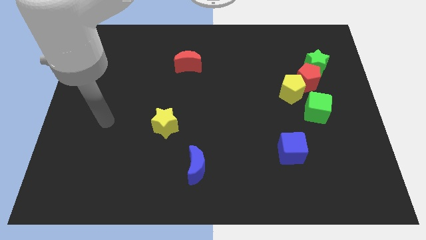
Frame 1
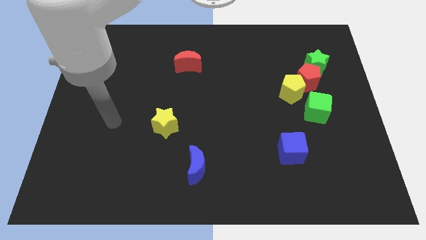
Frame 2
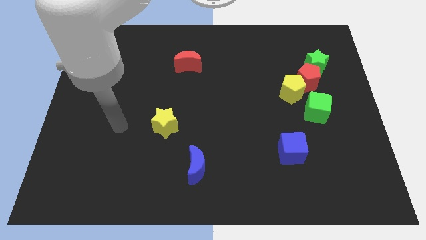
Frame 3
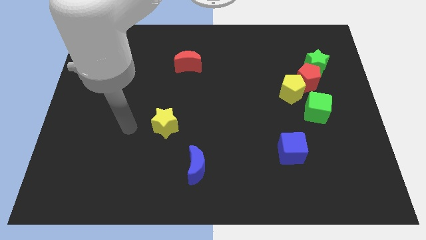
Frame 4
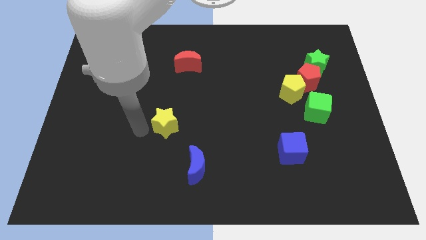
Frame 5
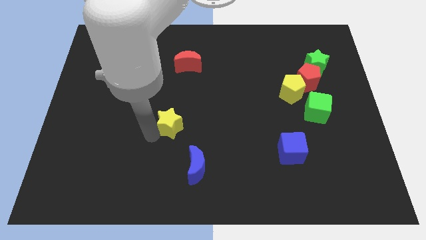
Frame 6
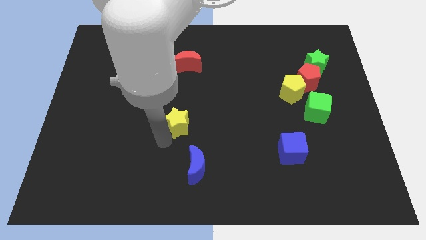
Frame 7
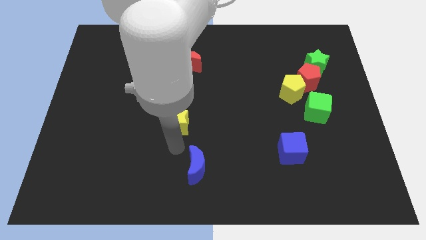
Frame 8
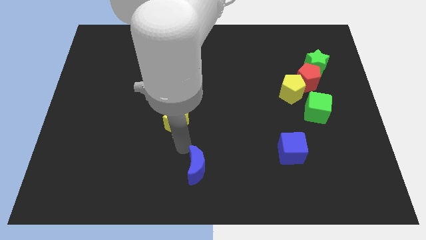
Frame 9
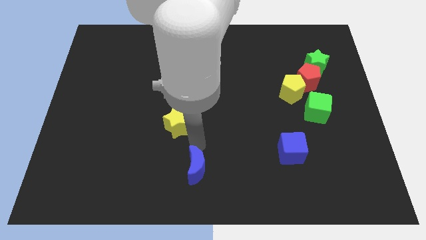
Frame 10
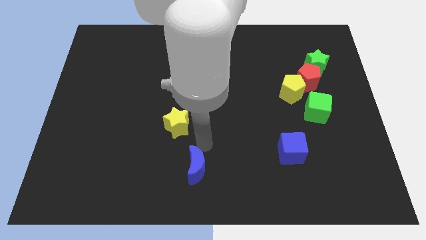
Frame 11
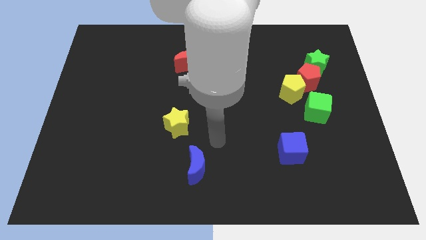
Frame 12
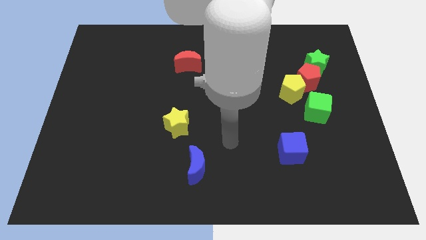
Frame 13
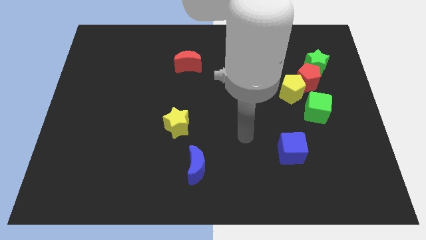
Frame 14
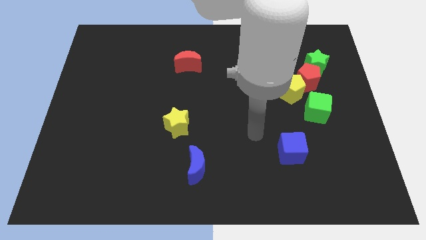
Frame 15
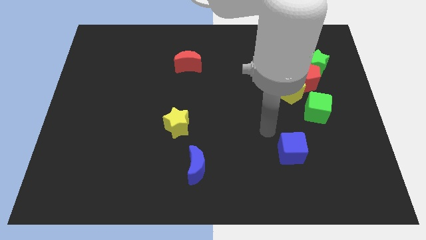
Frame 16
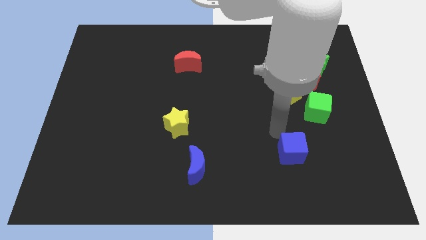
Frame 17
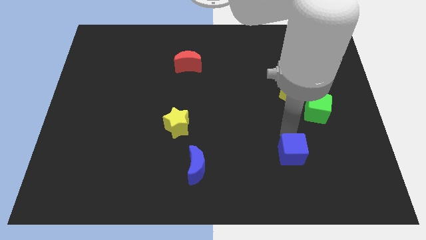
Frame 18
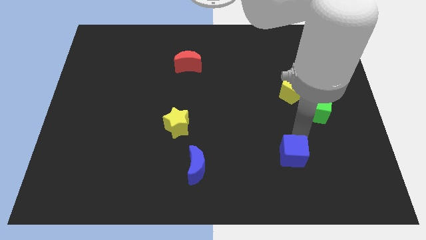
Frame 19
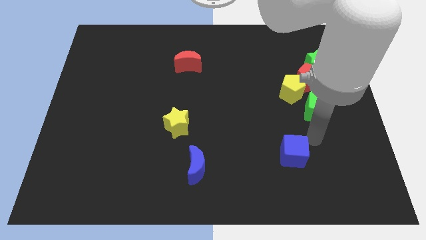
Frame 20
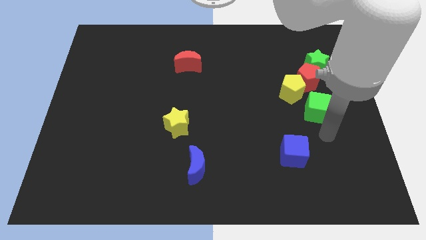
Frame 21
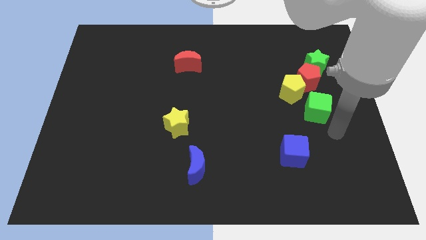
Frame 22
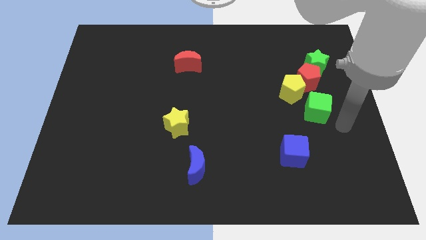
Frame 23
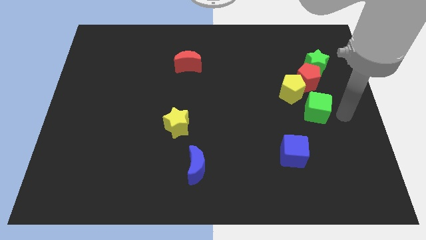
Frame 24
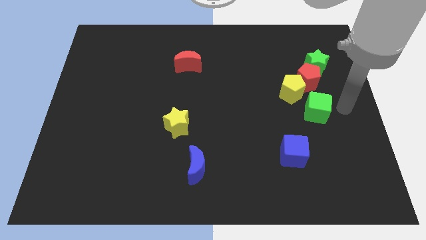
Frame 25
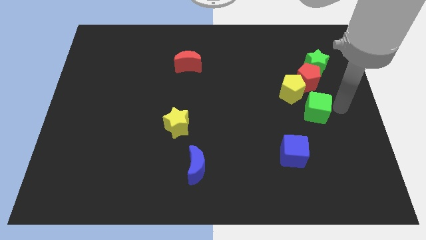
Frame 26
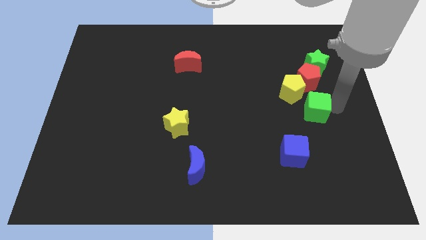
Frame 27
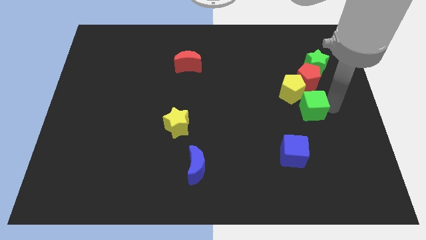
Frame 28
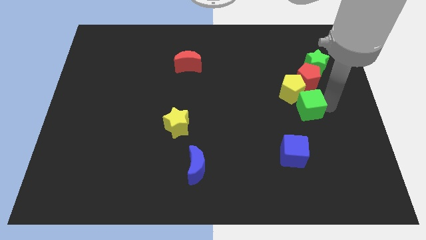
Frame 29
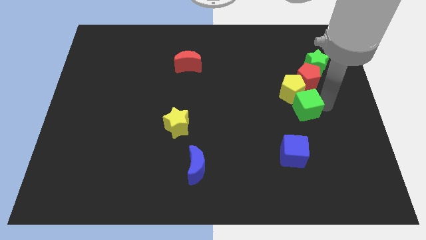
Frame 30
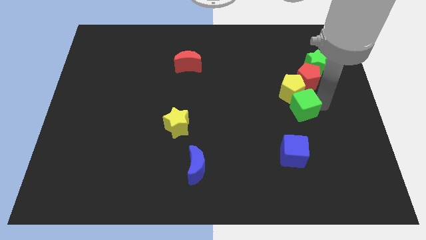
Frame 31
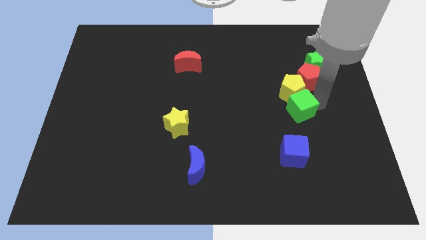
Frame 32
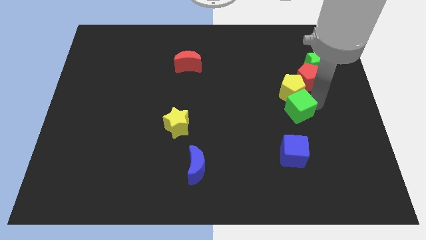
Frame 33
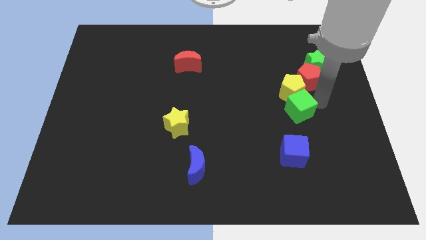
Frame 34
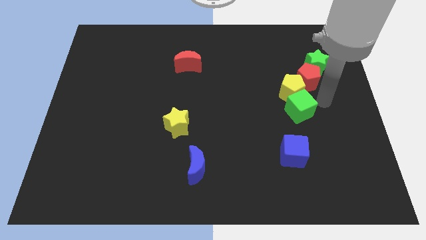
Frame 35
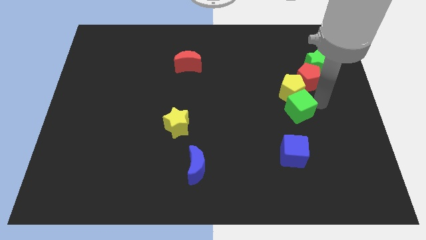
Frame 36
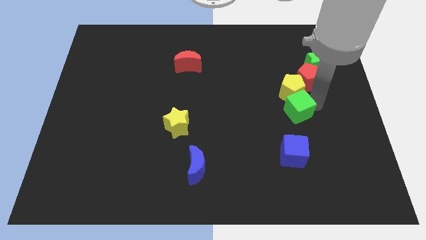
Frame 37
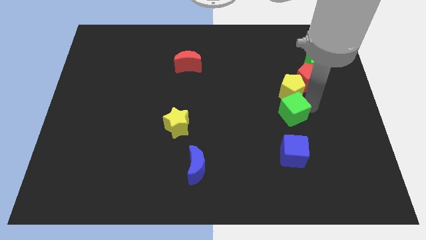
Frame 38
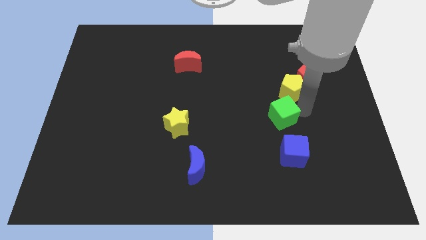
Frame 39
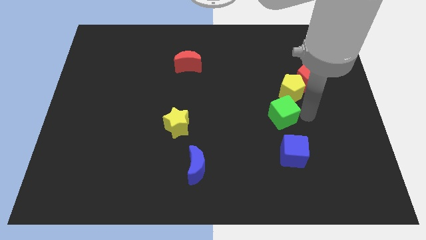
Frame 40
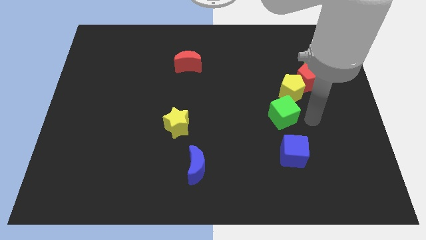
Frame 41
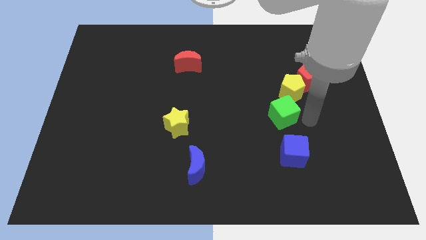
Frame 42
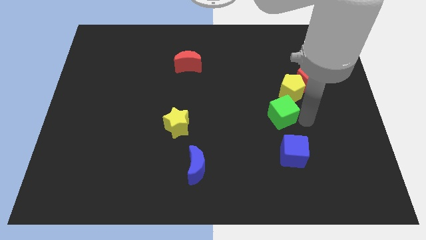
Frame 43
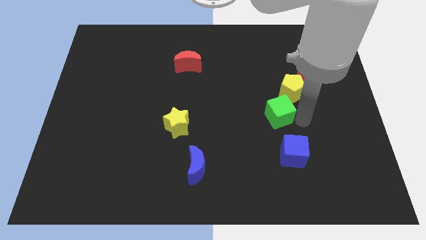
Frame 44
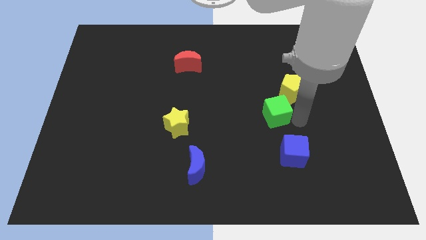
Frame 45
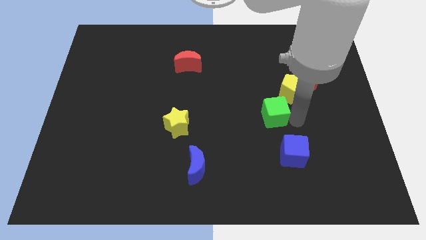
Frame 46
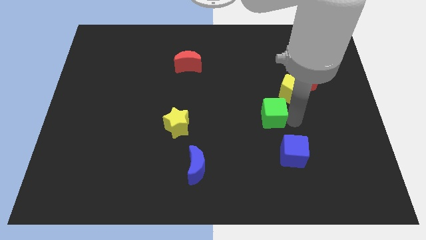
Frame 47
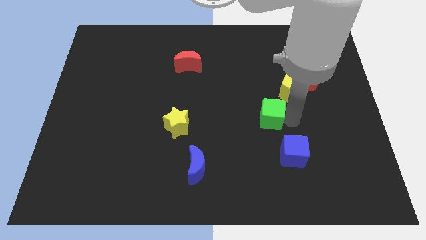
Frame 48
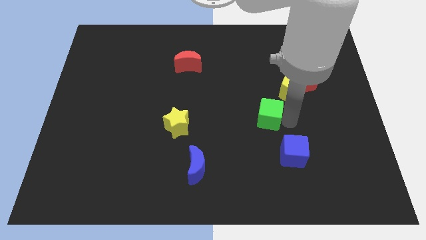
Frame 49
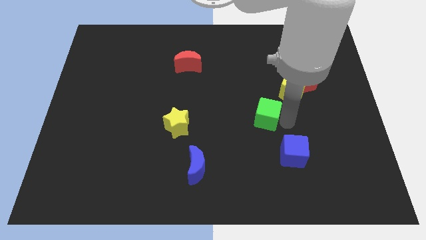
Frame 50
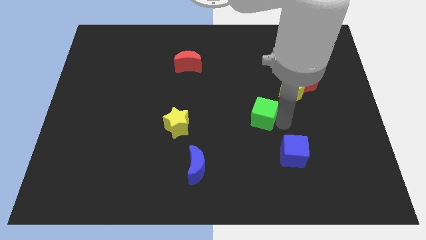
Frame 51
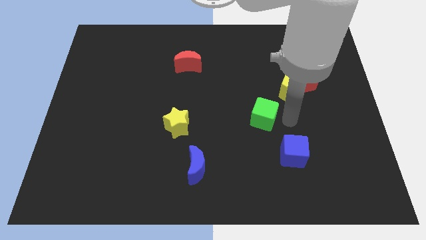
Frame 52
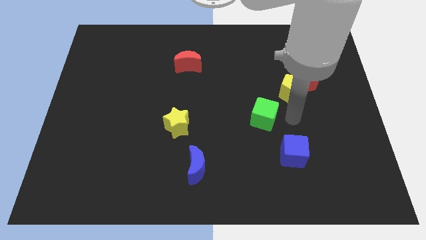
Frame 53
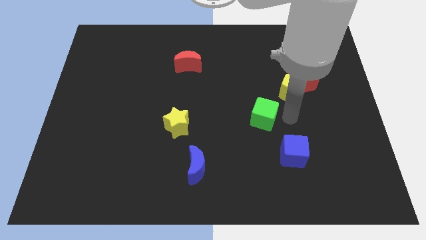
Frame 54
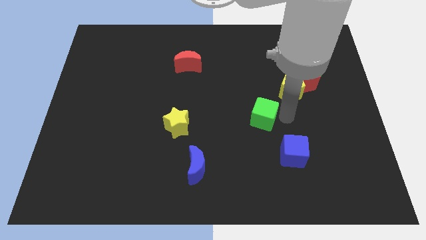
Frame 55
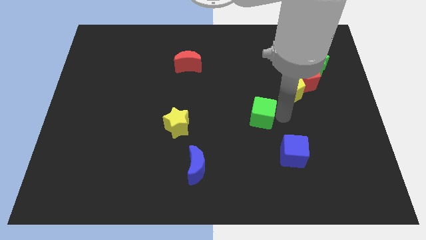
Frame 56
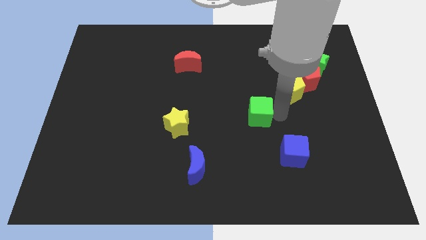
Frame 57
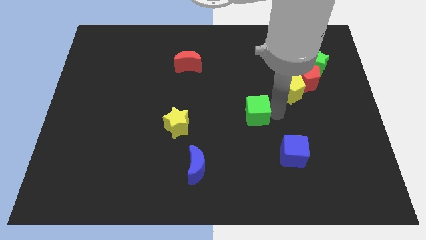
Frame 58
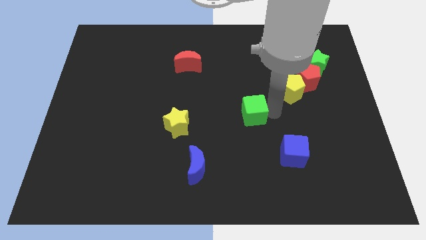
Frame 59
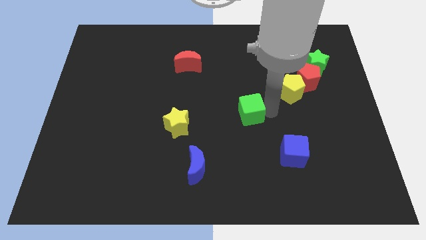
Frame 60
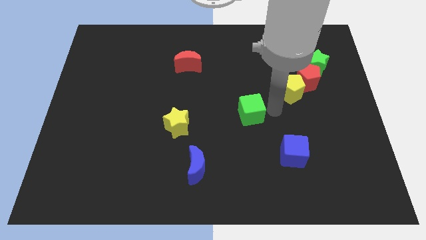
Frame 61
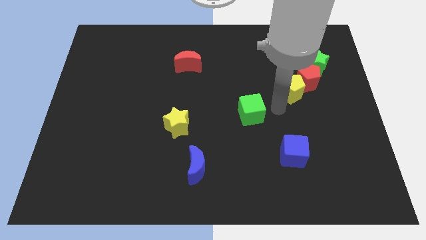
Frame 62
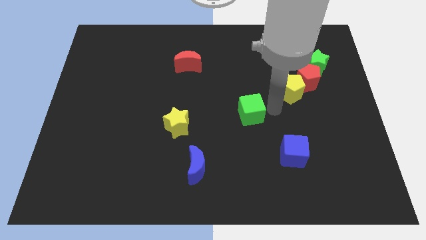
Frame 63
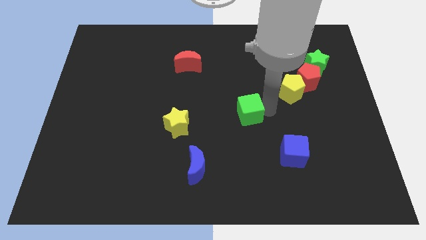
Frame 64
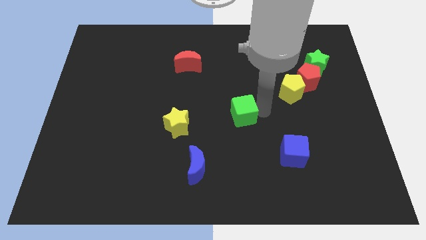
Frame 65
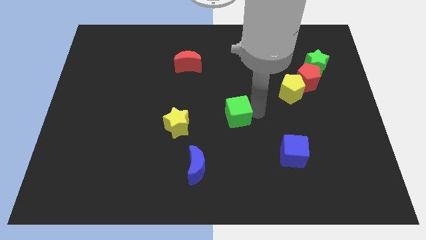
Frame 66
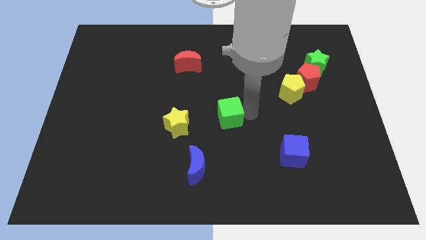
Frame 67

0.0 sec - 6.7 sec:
move the green cube left

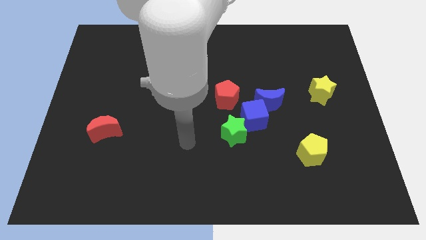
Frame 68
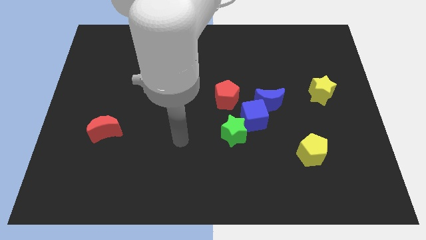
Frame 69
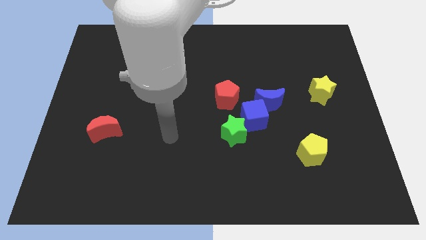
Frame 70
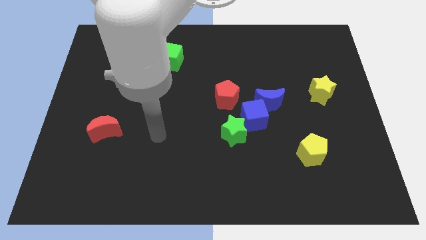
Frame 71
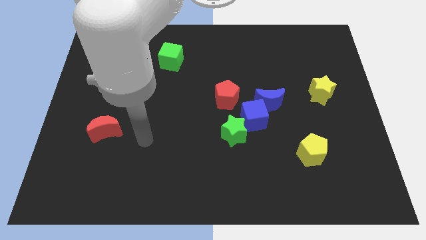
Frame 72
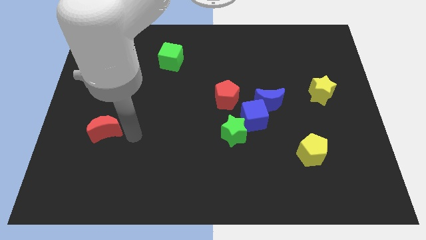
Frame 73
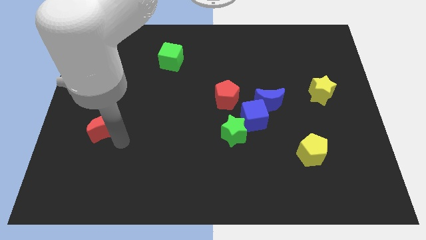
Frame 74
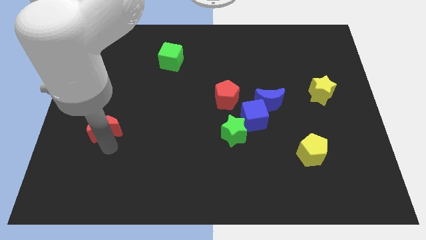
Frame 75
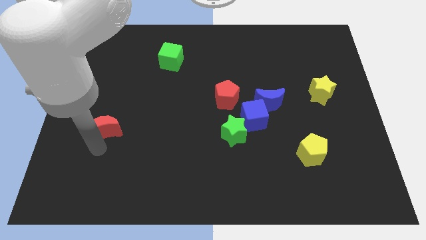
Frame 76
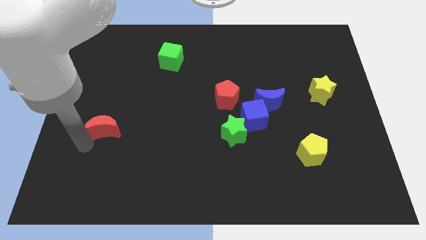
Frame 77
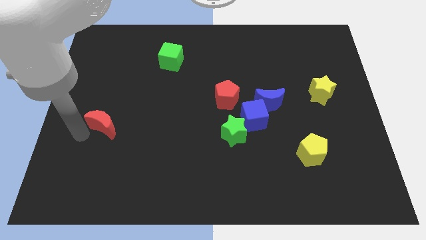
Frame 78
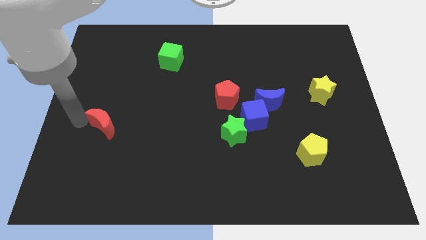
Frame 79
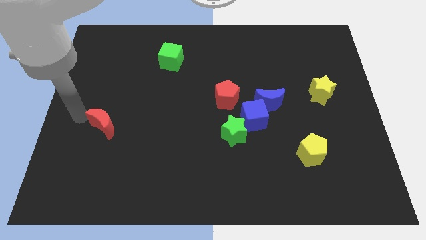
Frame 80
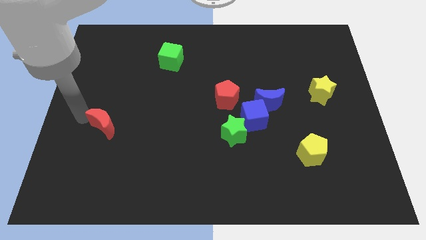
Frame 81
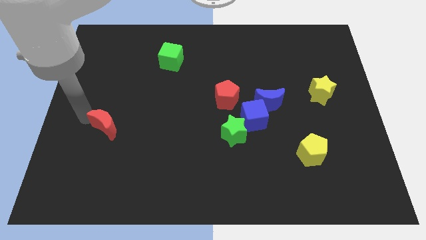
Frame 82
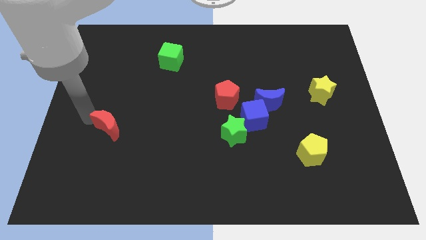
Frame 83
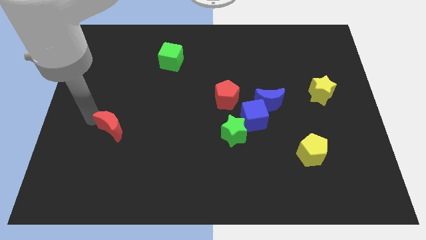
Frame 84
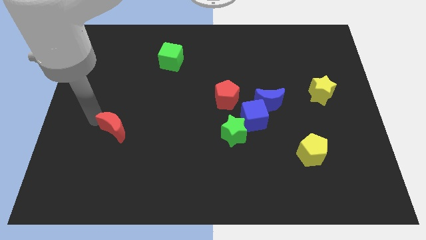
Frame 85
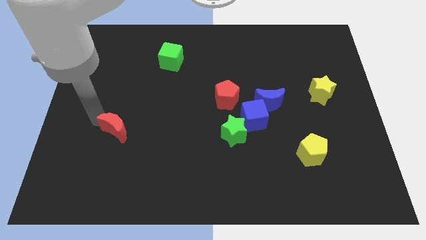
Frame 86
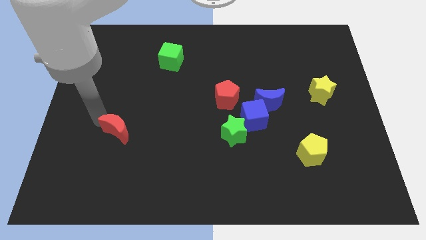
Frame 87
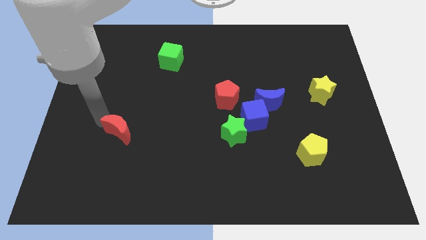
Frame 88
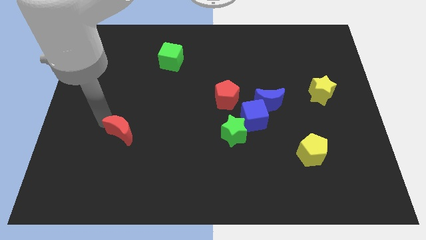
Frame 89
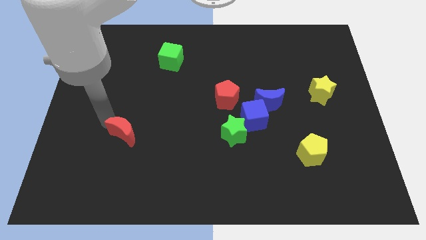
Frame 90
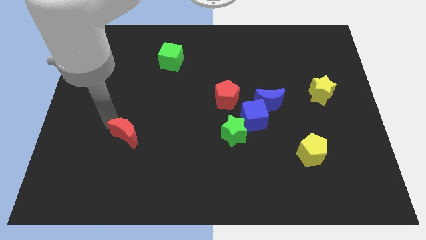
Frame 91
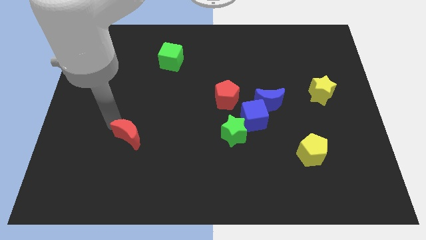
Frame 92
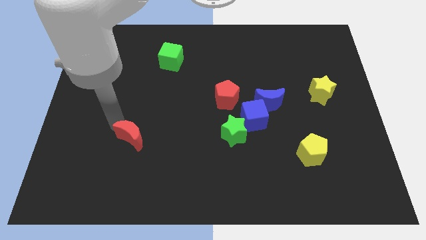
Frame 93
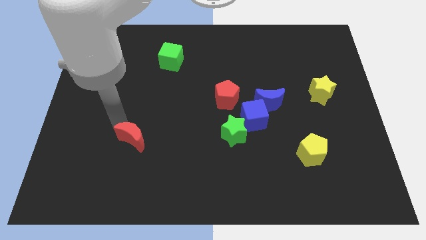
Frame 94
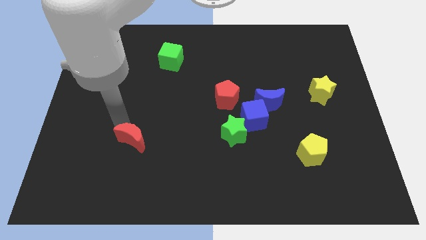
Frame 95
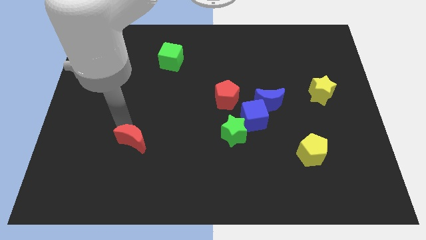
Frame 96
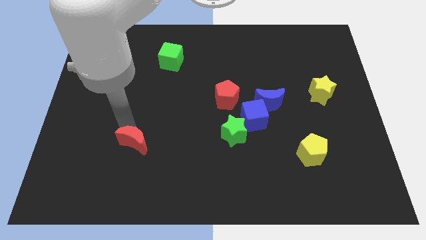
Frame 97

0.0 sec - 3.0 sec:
move the red moon a little bit to the right
